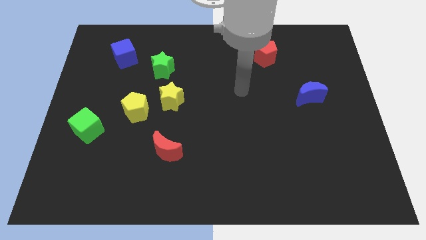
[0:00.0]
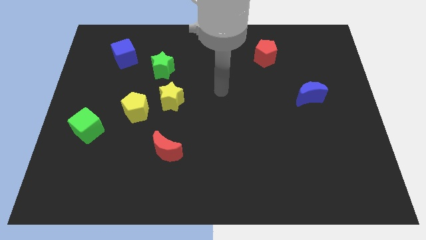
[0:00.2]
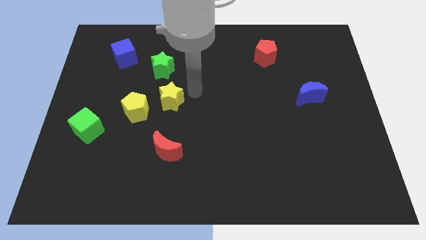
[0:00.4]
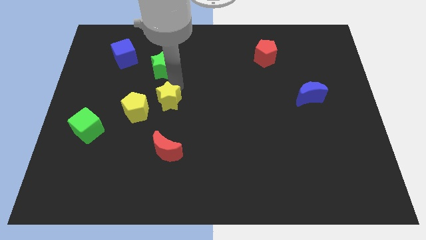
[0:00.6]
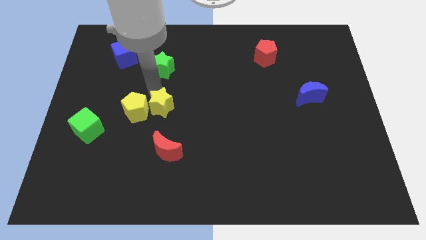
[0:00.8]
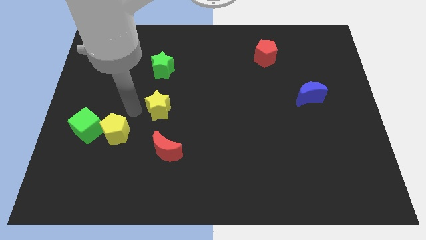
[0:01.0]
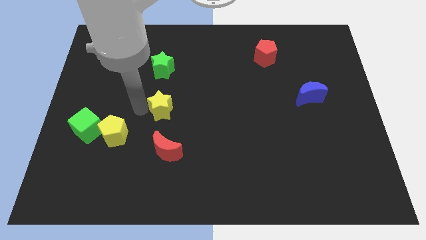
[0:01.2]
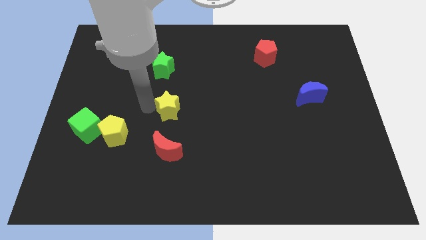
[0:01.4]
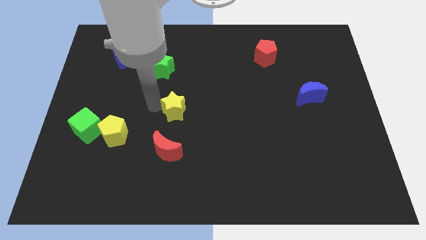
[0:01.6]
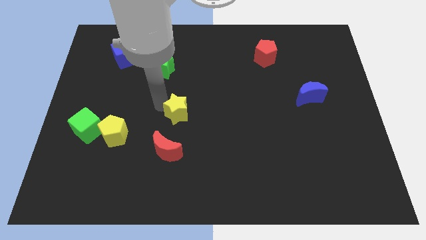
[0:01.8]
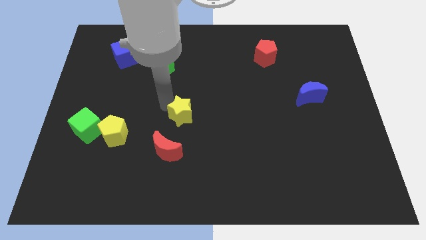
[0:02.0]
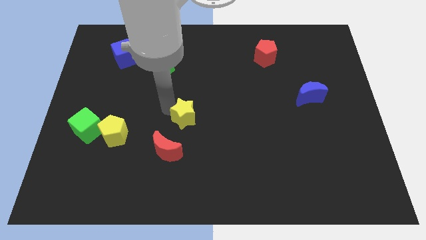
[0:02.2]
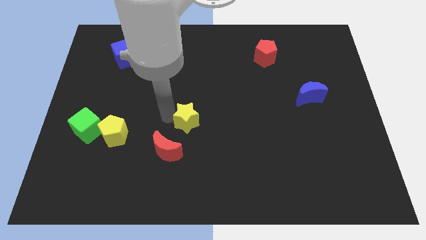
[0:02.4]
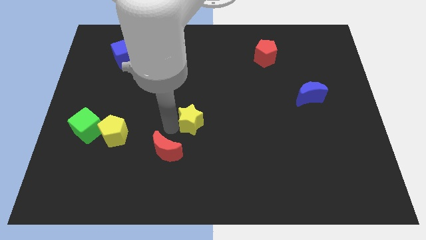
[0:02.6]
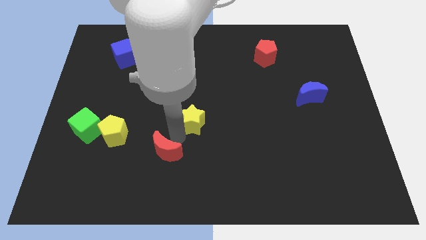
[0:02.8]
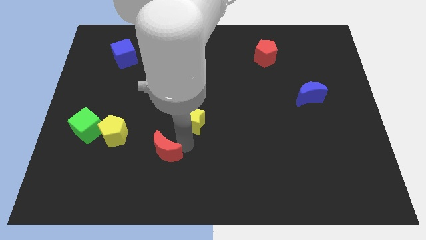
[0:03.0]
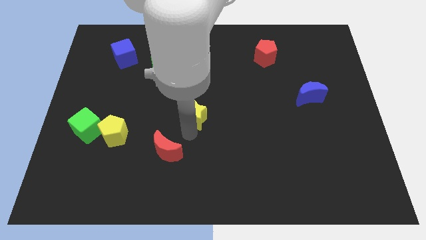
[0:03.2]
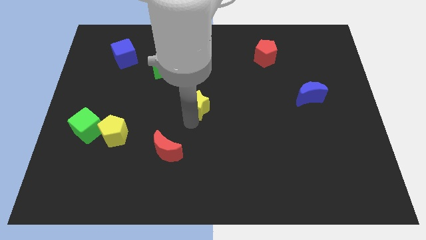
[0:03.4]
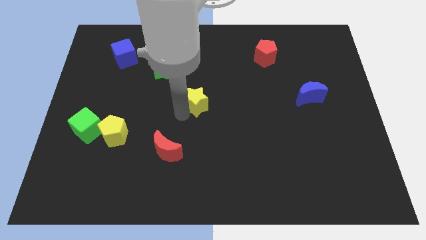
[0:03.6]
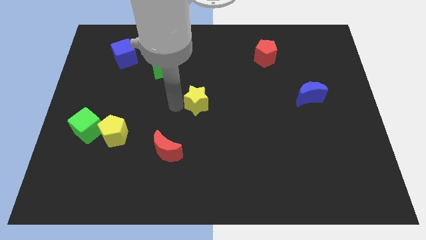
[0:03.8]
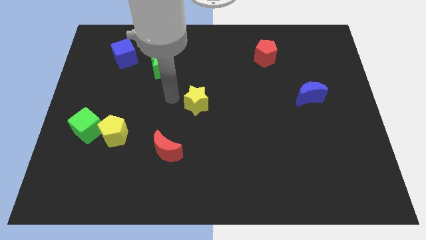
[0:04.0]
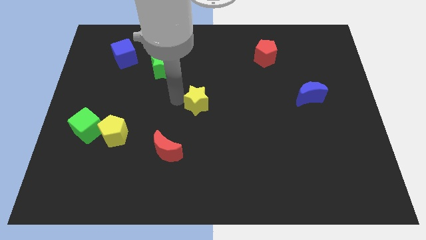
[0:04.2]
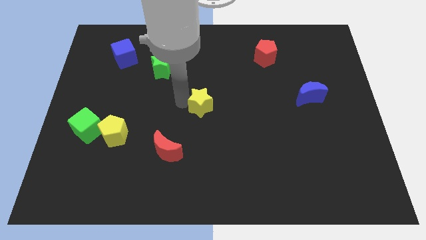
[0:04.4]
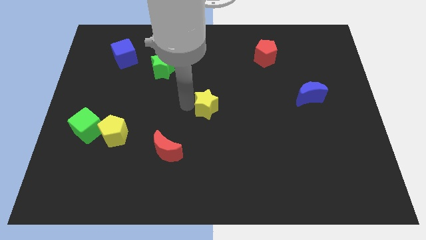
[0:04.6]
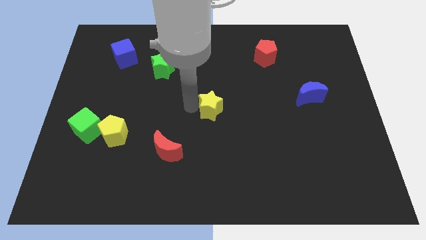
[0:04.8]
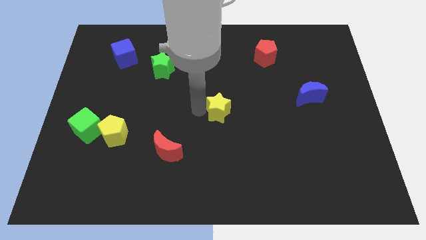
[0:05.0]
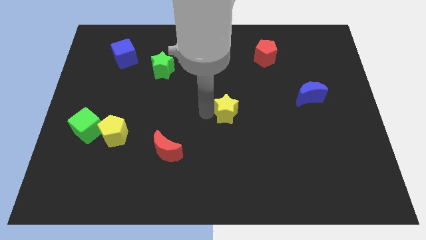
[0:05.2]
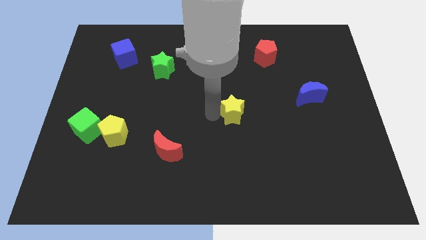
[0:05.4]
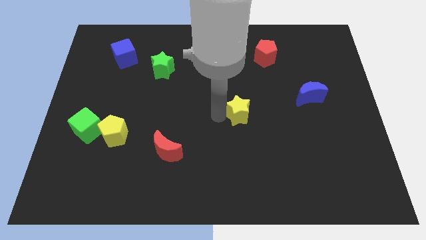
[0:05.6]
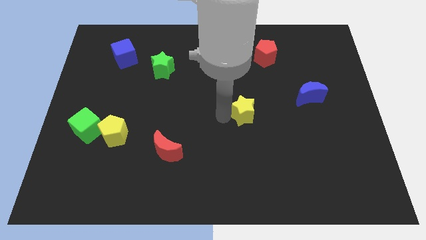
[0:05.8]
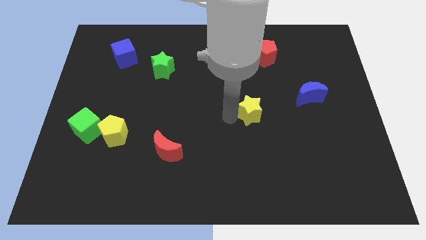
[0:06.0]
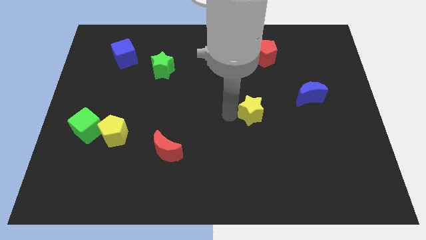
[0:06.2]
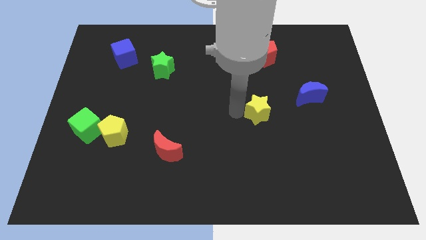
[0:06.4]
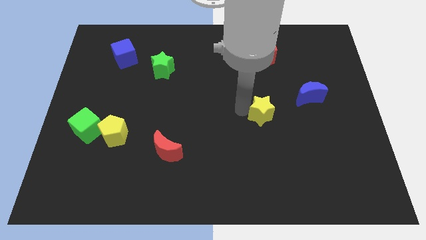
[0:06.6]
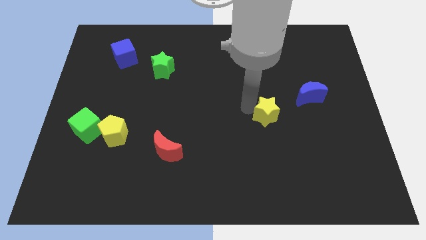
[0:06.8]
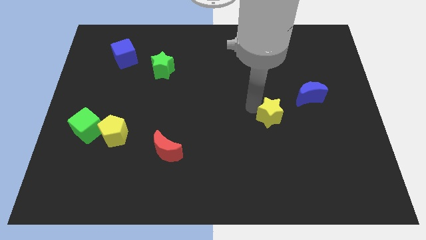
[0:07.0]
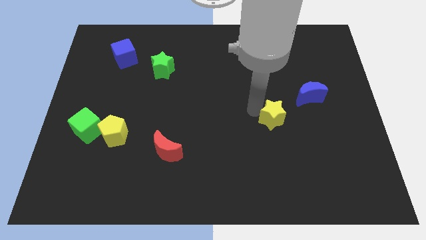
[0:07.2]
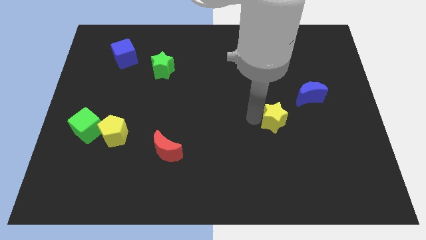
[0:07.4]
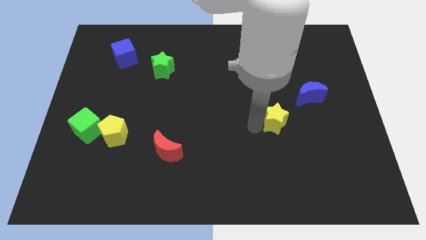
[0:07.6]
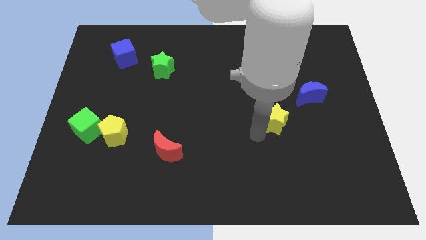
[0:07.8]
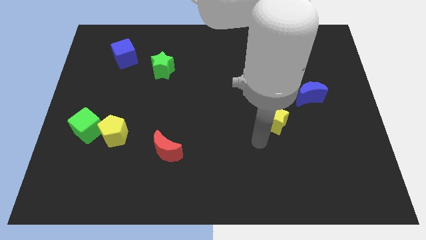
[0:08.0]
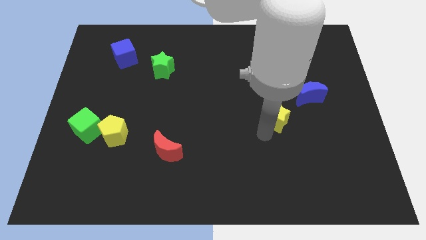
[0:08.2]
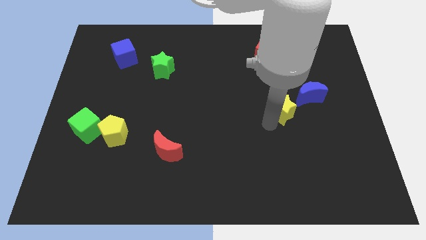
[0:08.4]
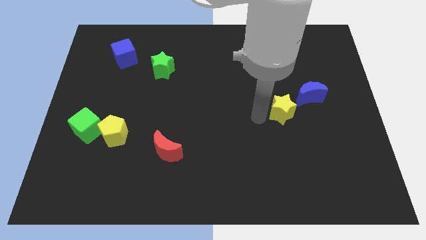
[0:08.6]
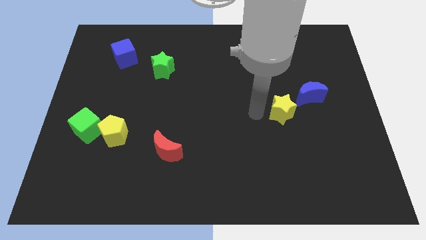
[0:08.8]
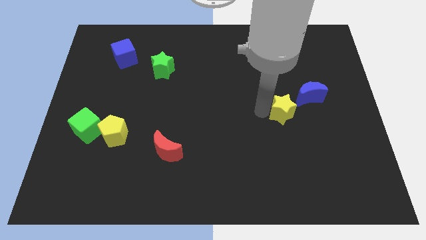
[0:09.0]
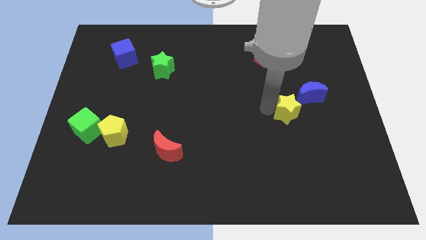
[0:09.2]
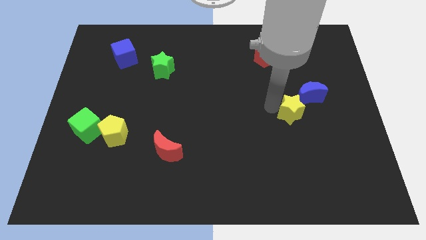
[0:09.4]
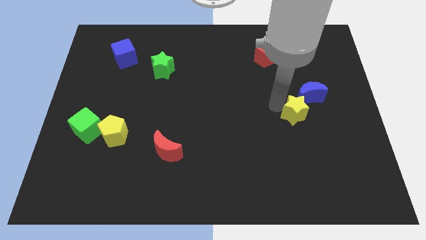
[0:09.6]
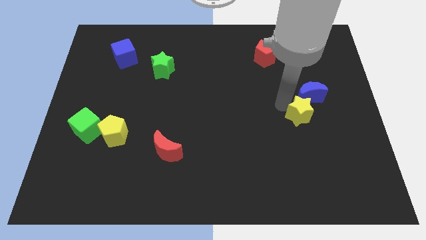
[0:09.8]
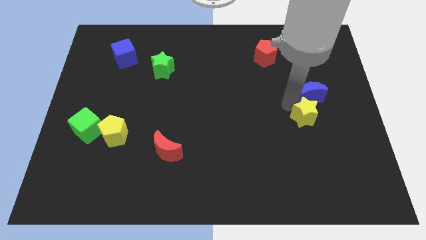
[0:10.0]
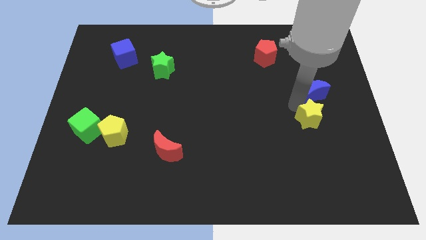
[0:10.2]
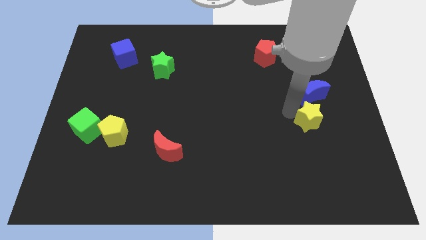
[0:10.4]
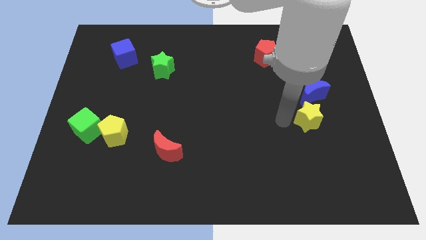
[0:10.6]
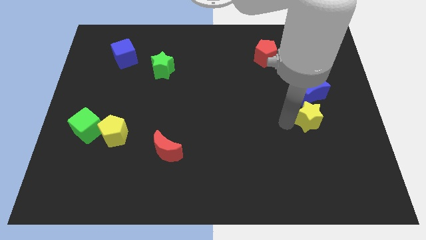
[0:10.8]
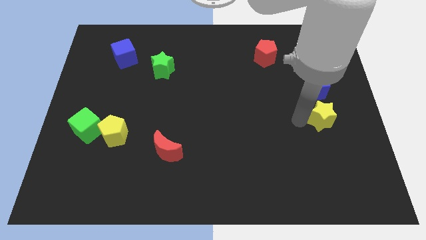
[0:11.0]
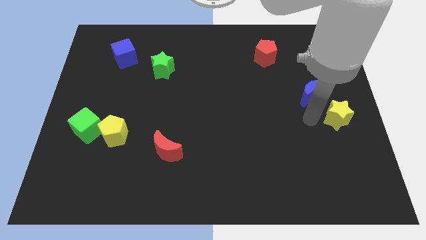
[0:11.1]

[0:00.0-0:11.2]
move the yellow star to the right side of the board

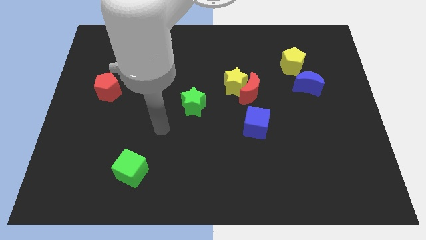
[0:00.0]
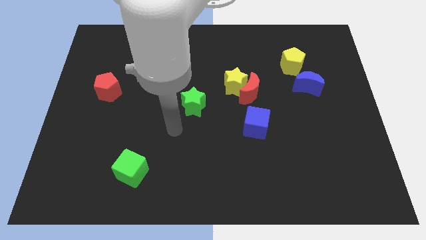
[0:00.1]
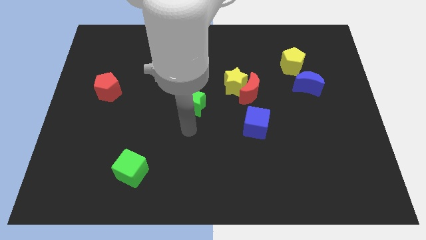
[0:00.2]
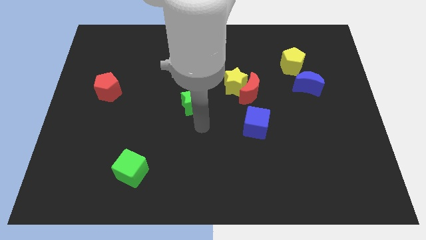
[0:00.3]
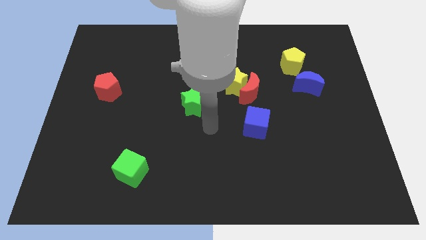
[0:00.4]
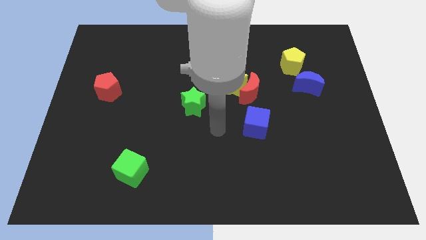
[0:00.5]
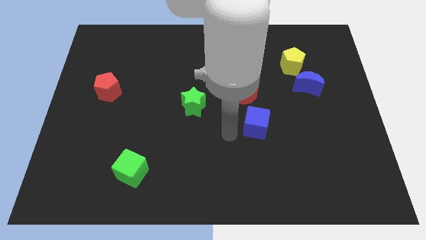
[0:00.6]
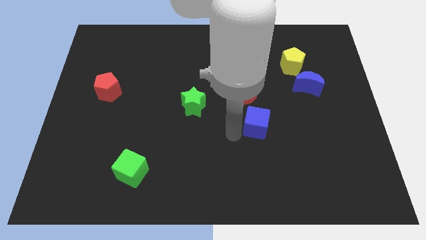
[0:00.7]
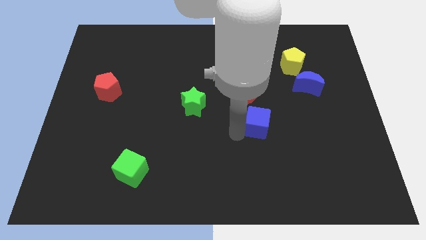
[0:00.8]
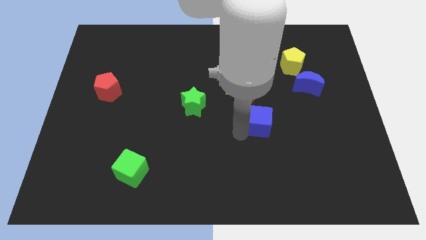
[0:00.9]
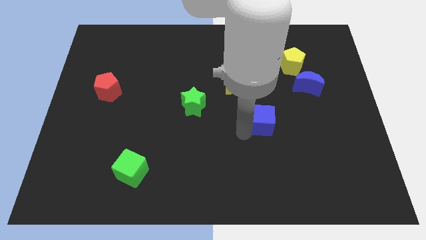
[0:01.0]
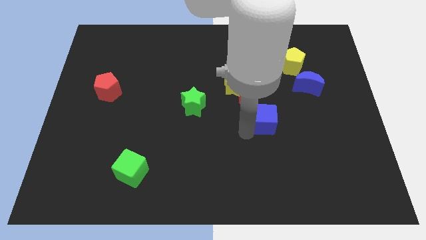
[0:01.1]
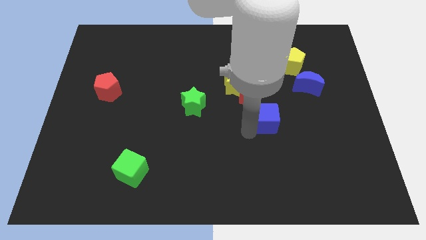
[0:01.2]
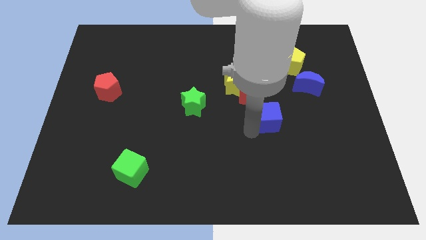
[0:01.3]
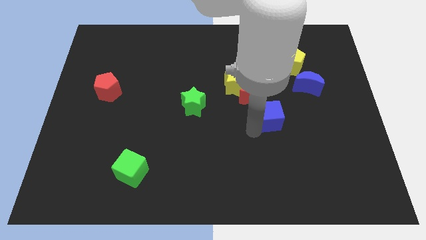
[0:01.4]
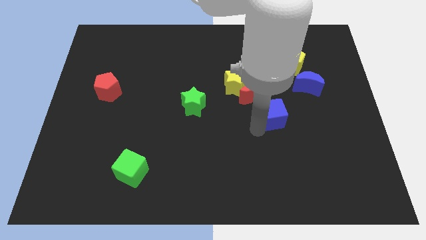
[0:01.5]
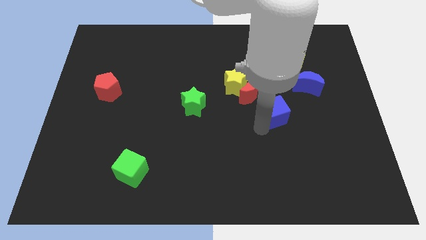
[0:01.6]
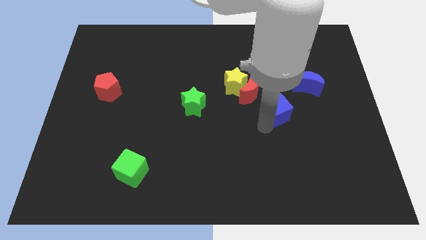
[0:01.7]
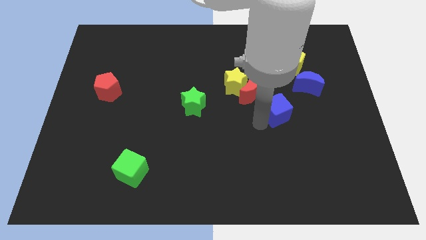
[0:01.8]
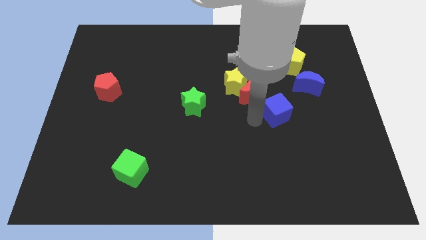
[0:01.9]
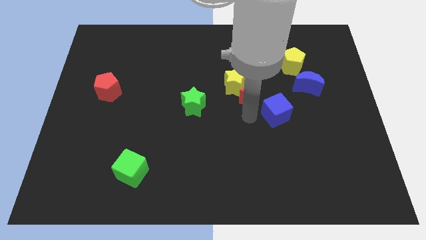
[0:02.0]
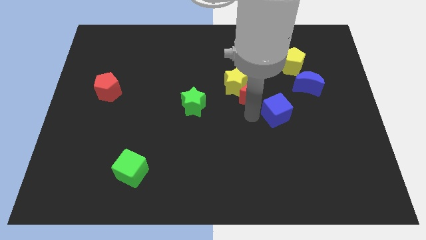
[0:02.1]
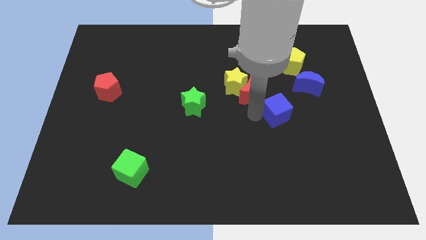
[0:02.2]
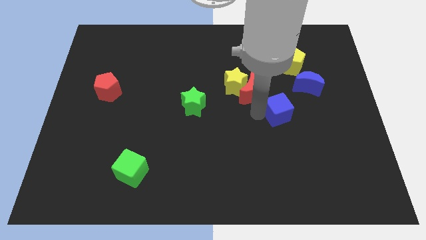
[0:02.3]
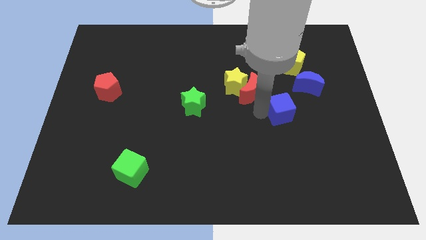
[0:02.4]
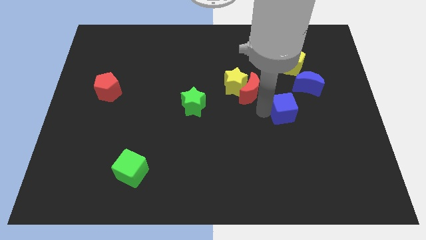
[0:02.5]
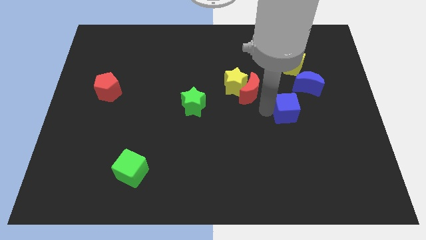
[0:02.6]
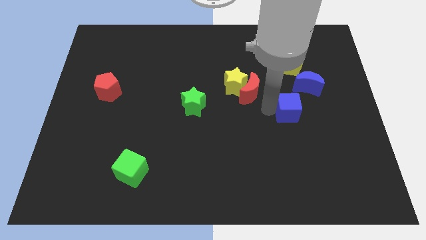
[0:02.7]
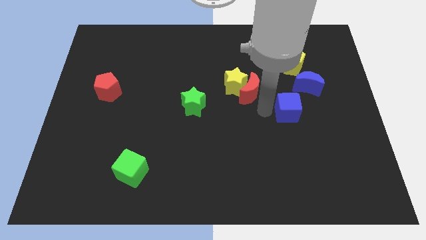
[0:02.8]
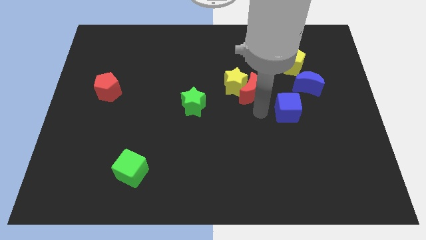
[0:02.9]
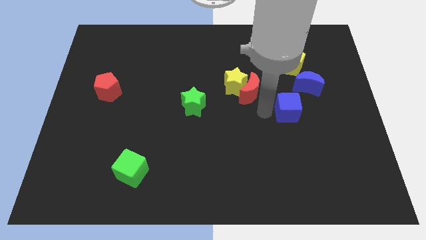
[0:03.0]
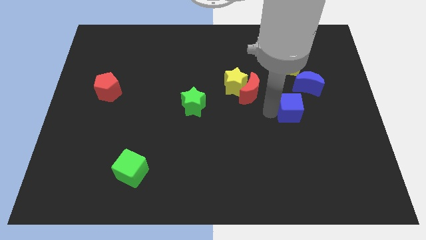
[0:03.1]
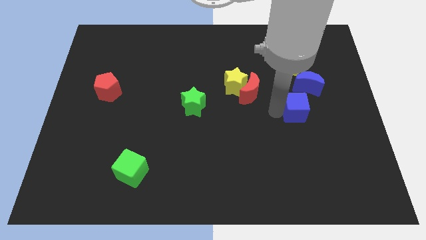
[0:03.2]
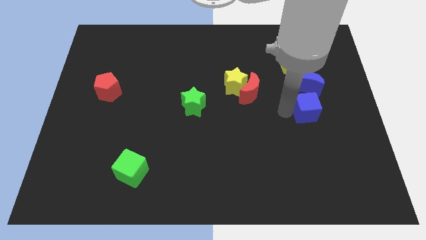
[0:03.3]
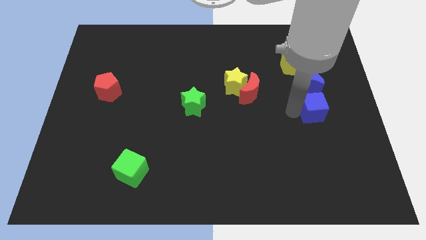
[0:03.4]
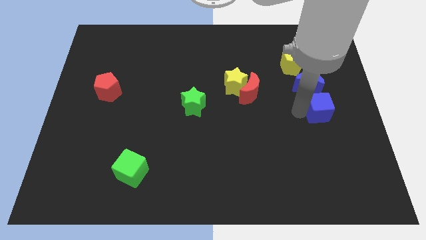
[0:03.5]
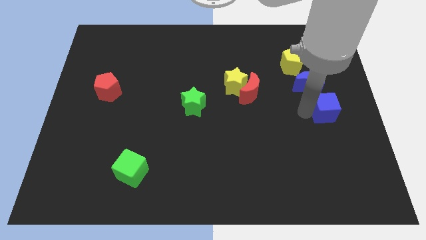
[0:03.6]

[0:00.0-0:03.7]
push the blue cube to the center right
